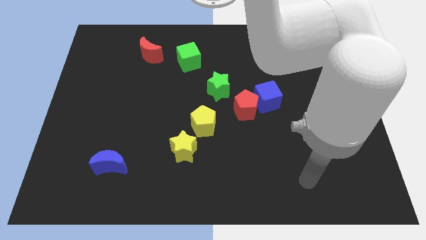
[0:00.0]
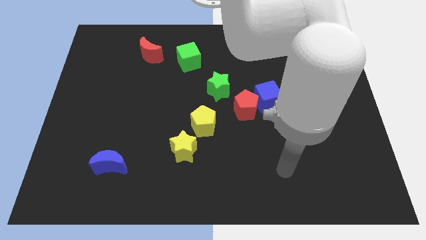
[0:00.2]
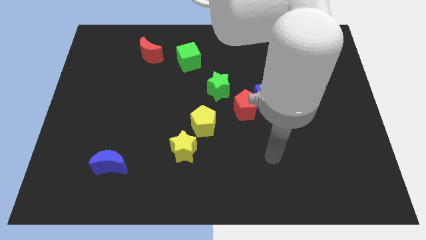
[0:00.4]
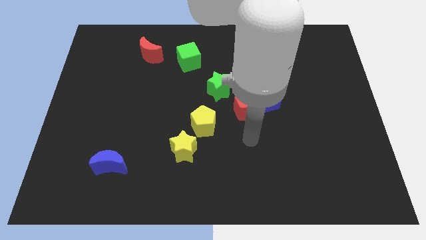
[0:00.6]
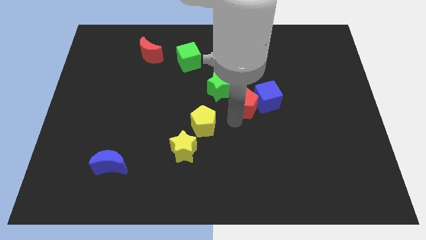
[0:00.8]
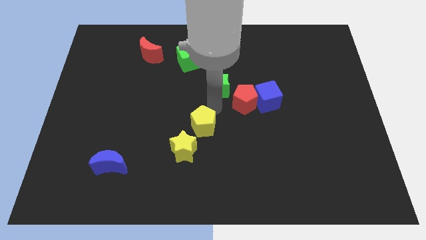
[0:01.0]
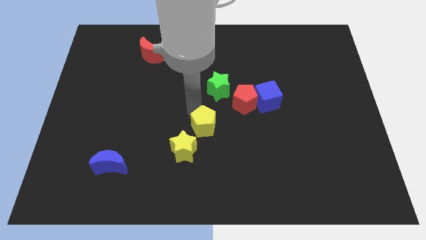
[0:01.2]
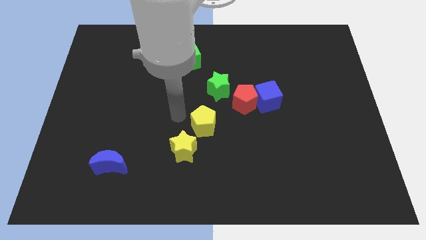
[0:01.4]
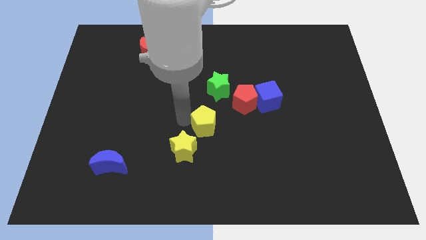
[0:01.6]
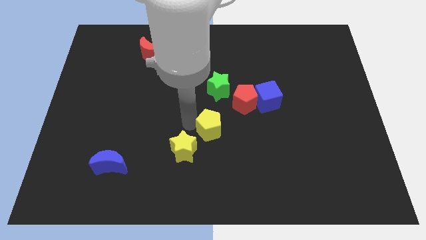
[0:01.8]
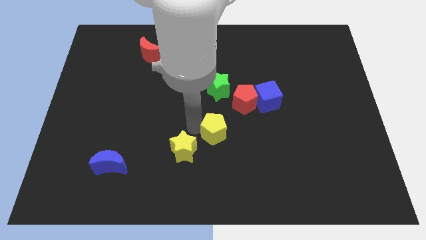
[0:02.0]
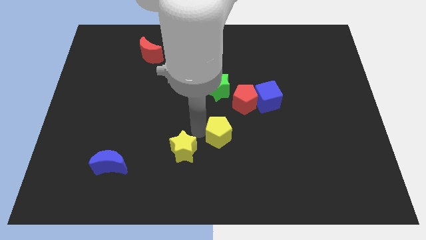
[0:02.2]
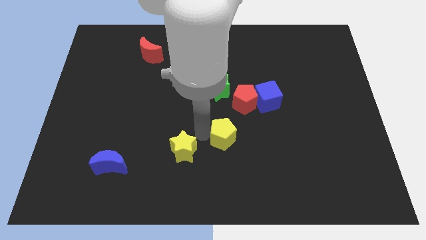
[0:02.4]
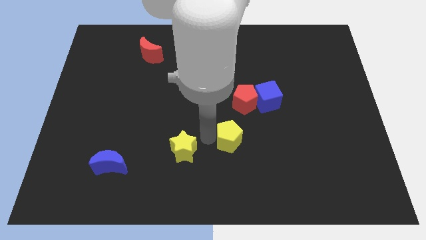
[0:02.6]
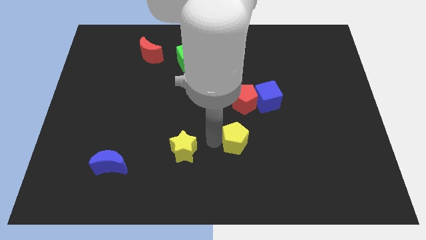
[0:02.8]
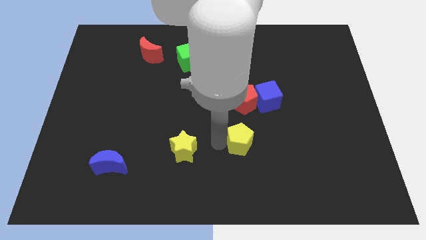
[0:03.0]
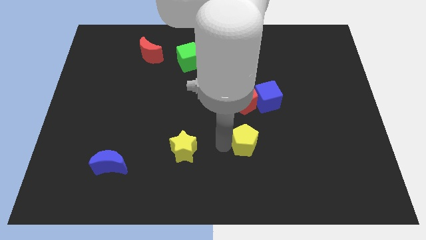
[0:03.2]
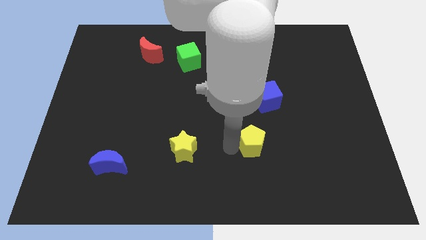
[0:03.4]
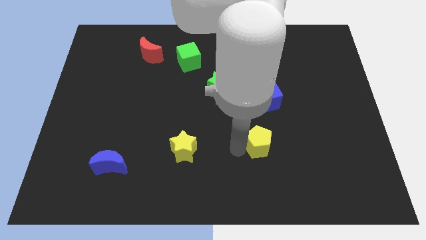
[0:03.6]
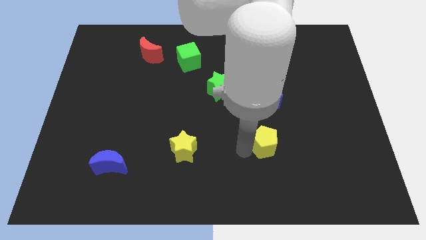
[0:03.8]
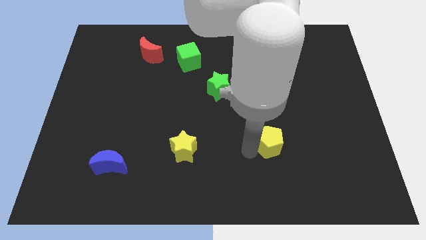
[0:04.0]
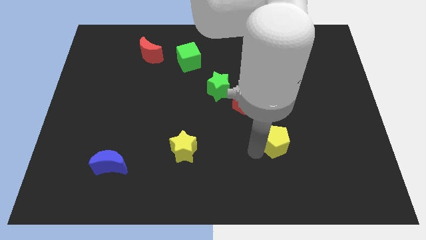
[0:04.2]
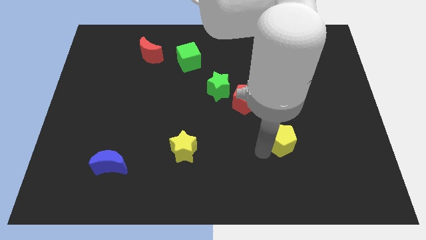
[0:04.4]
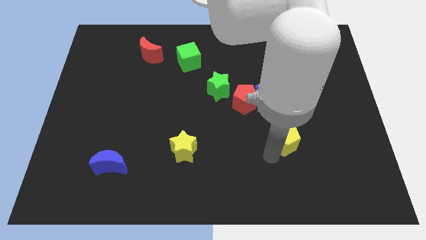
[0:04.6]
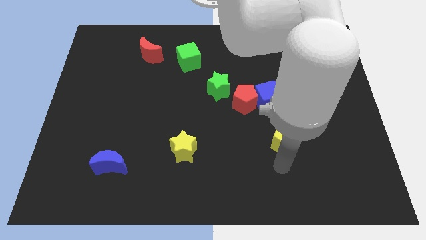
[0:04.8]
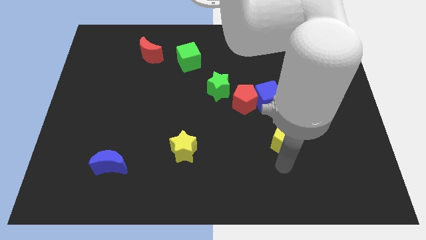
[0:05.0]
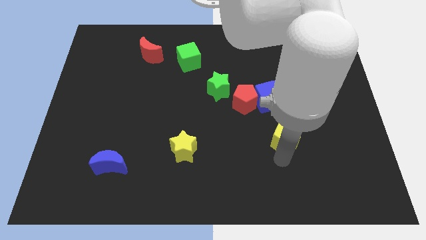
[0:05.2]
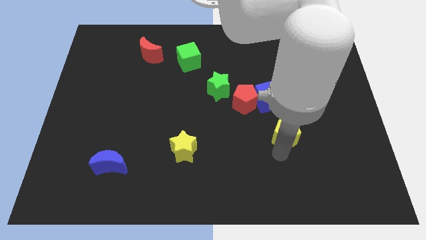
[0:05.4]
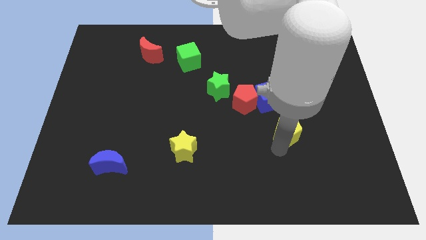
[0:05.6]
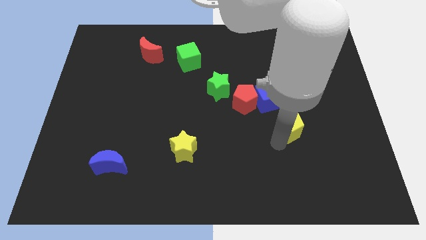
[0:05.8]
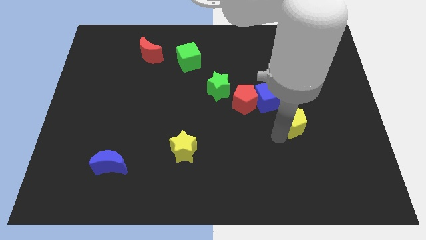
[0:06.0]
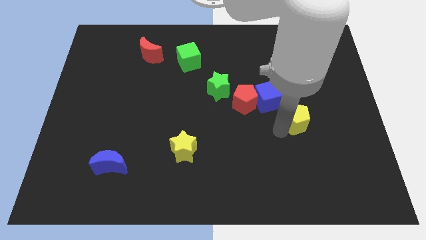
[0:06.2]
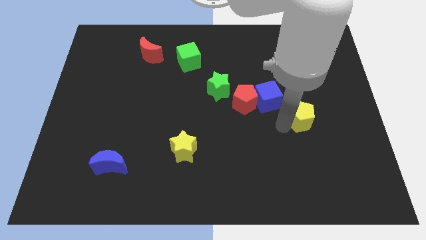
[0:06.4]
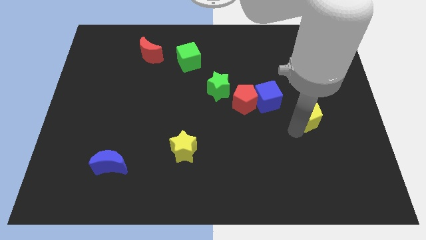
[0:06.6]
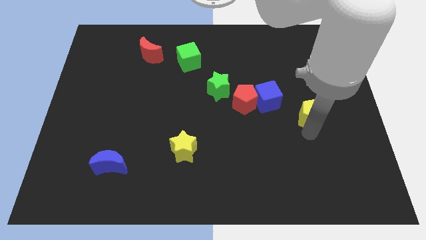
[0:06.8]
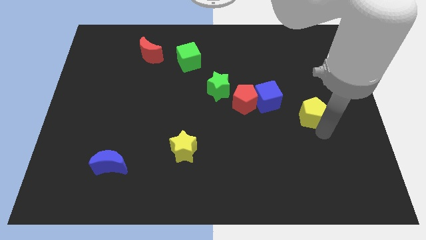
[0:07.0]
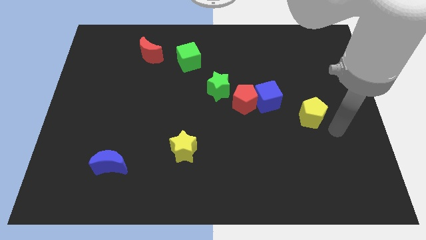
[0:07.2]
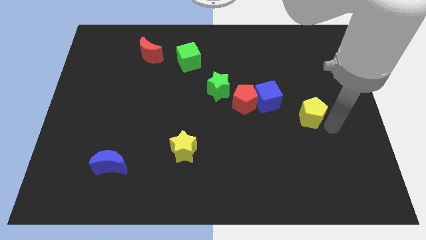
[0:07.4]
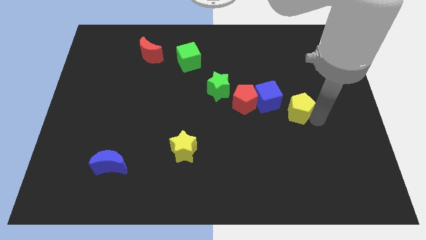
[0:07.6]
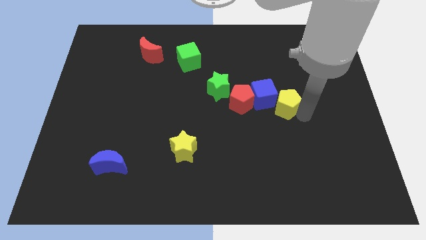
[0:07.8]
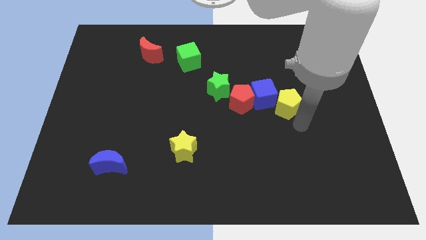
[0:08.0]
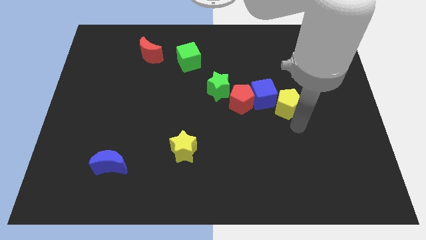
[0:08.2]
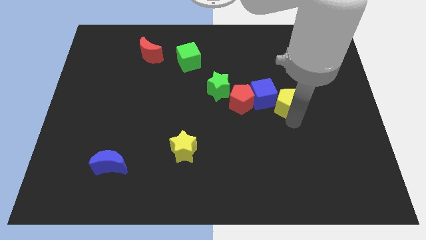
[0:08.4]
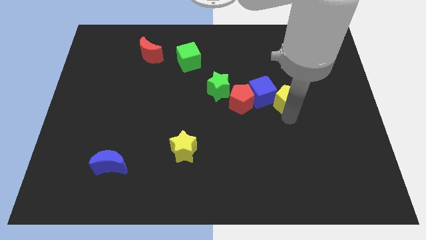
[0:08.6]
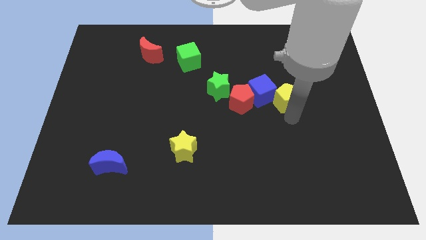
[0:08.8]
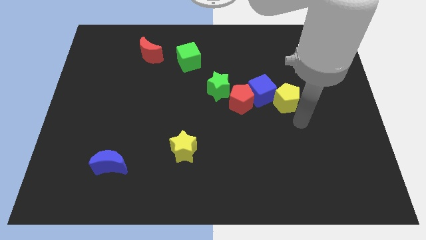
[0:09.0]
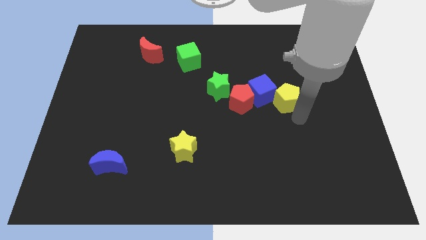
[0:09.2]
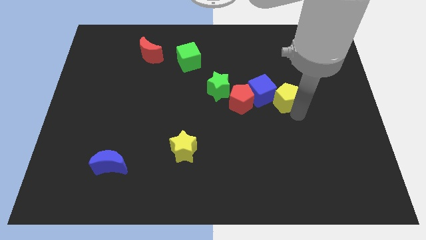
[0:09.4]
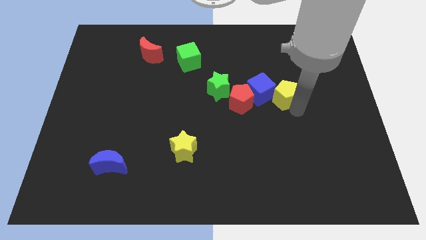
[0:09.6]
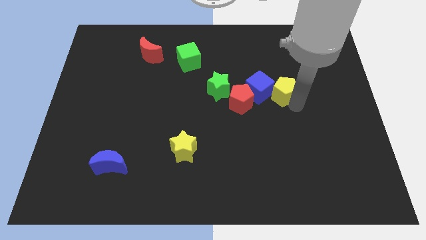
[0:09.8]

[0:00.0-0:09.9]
move the yellow pentagon right of the green star

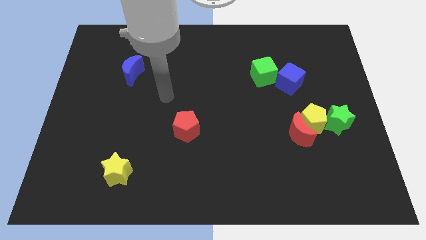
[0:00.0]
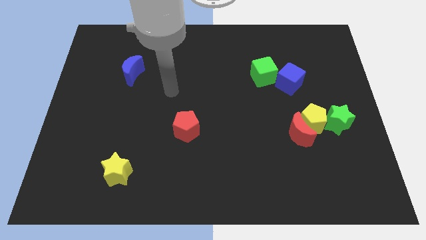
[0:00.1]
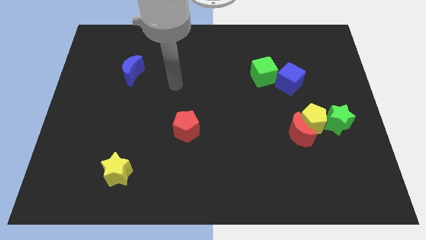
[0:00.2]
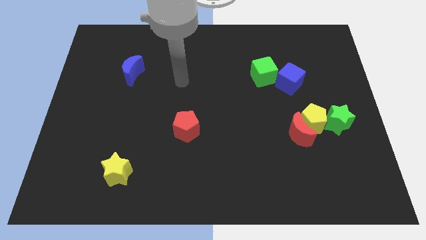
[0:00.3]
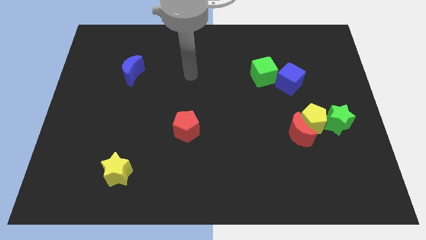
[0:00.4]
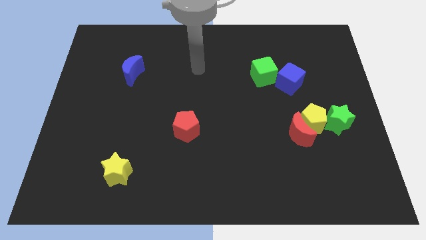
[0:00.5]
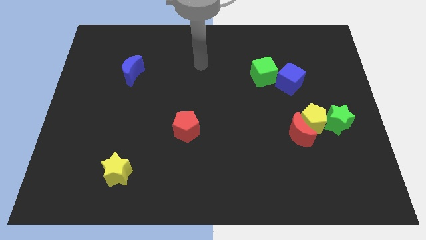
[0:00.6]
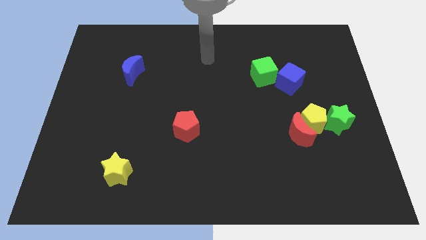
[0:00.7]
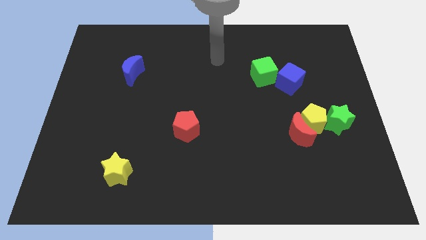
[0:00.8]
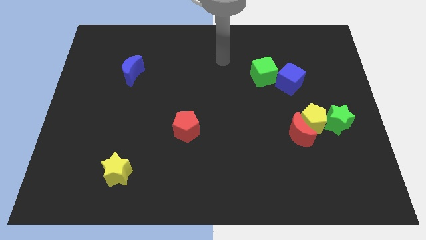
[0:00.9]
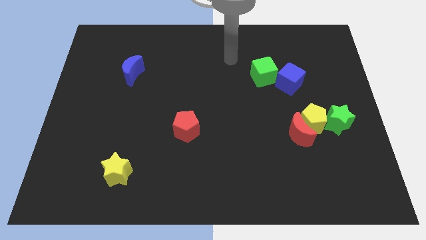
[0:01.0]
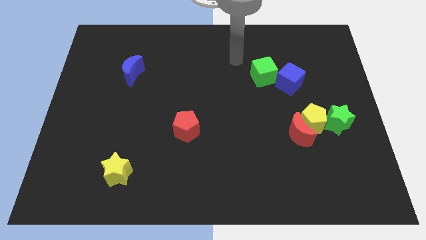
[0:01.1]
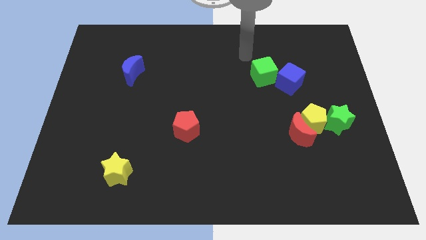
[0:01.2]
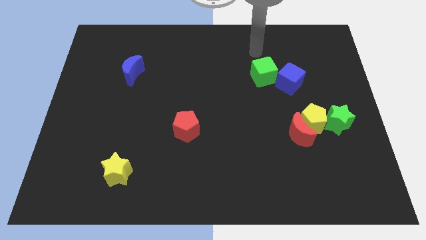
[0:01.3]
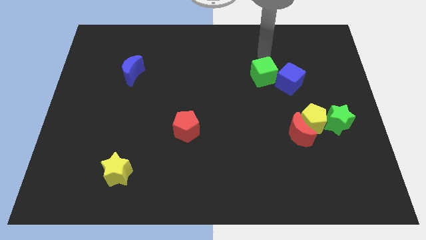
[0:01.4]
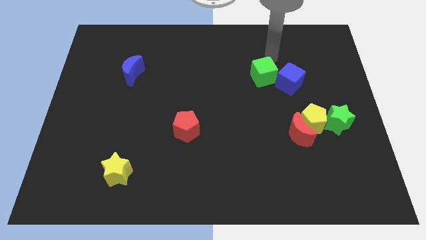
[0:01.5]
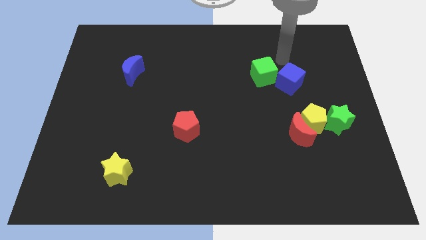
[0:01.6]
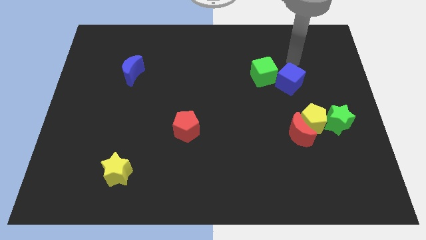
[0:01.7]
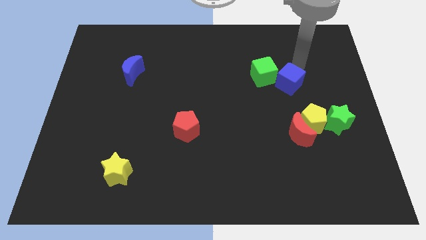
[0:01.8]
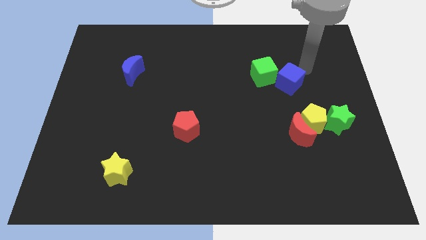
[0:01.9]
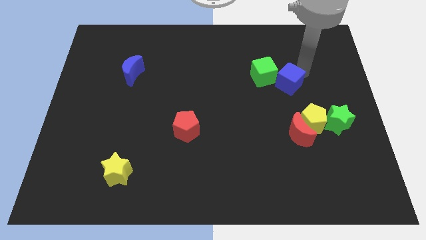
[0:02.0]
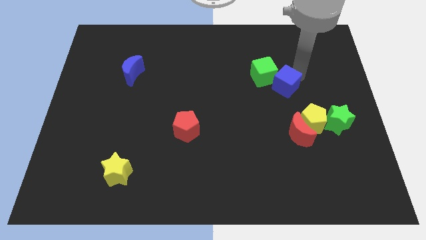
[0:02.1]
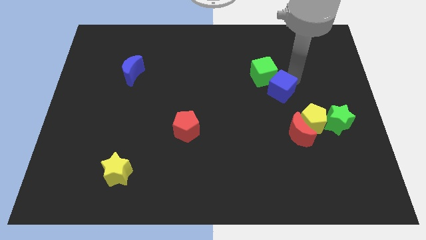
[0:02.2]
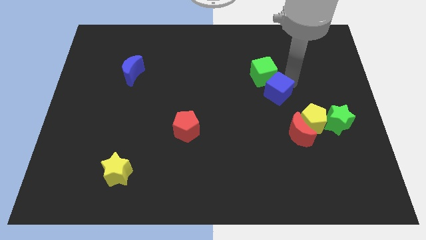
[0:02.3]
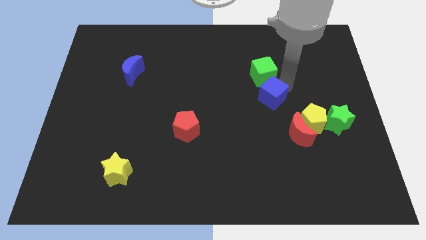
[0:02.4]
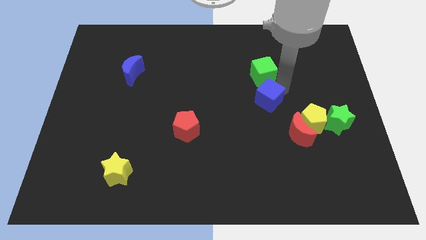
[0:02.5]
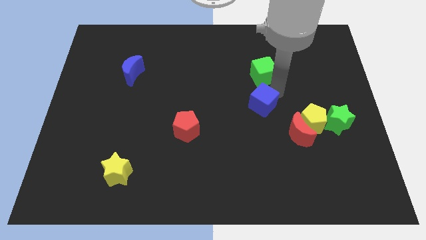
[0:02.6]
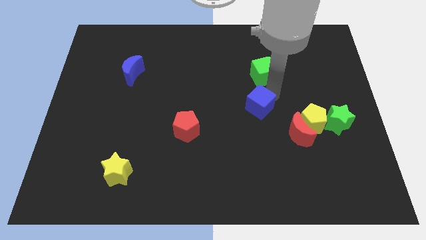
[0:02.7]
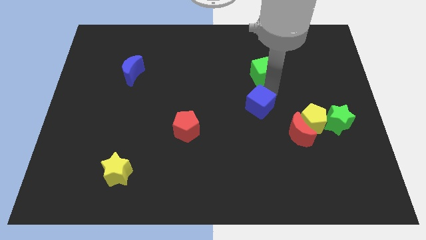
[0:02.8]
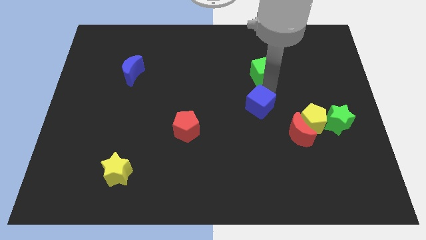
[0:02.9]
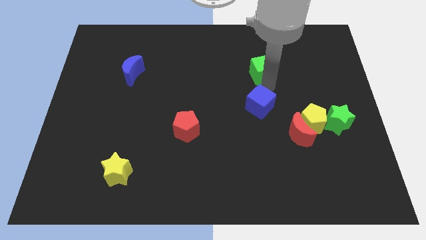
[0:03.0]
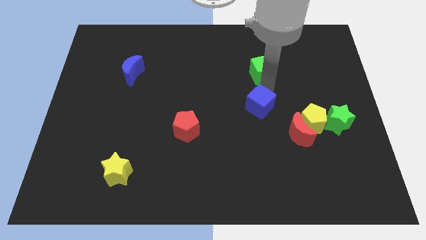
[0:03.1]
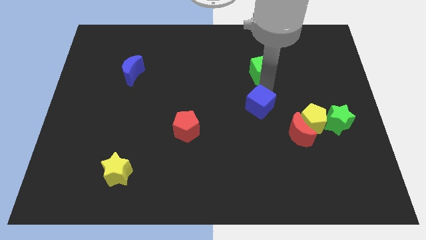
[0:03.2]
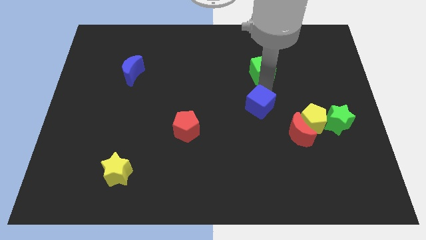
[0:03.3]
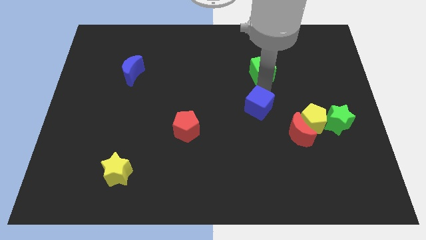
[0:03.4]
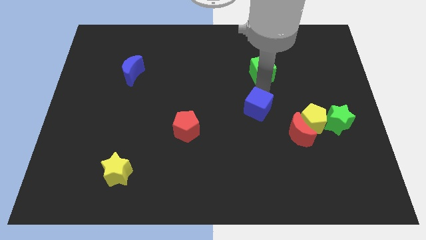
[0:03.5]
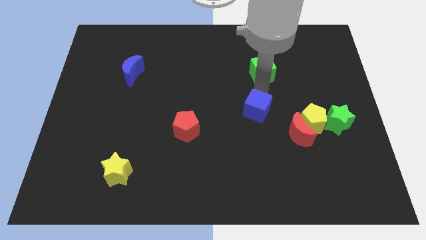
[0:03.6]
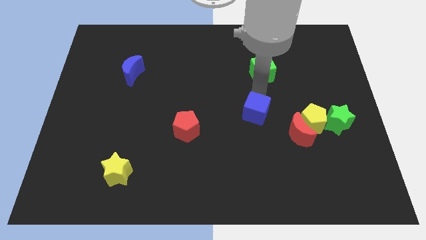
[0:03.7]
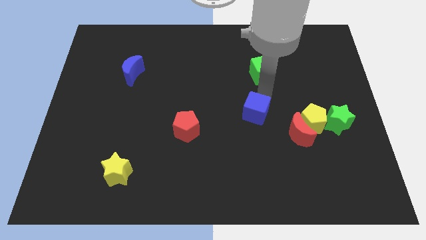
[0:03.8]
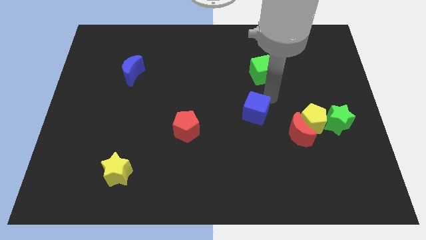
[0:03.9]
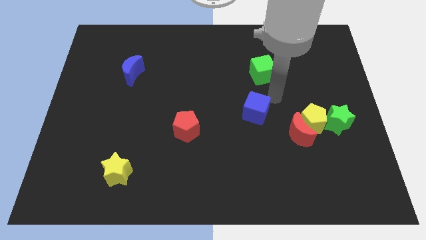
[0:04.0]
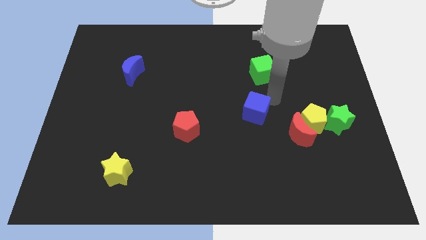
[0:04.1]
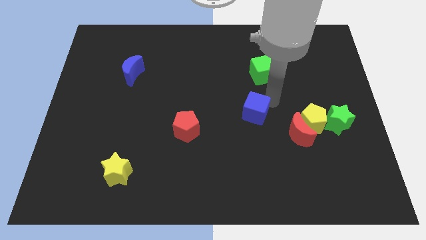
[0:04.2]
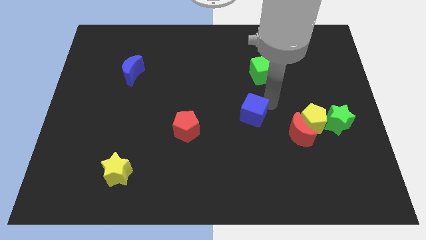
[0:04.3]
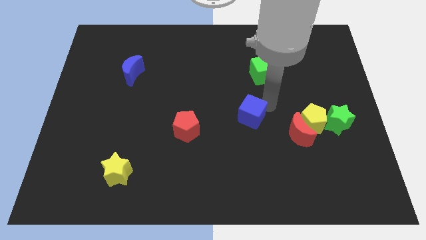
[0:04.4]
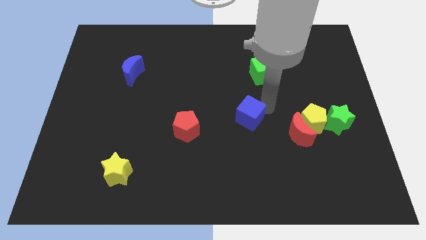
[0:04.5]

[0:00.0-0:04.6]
push the blue cube to the right of the red pentagon
